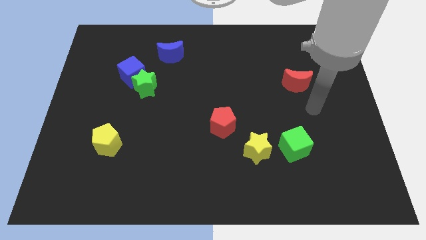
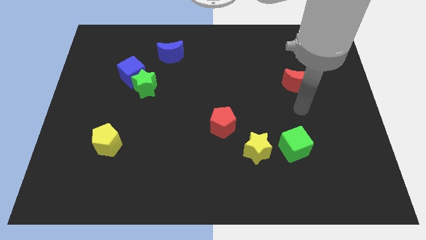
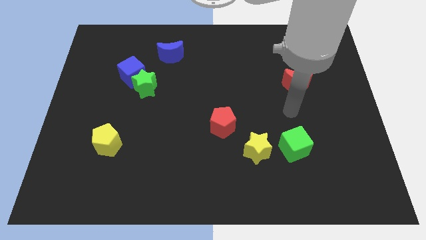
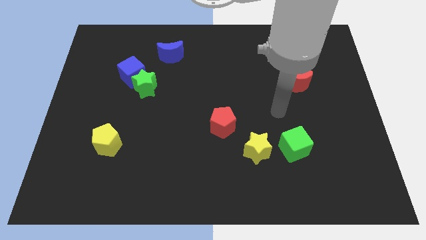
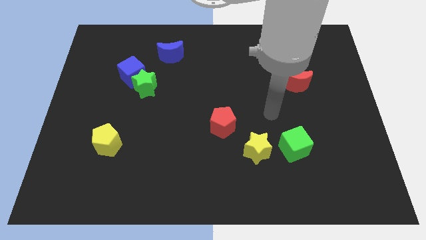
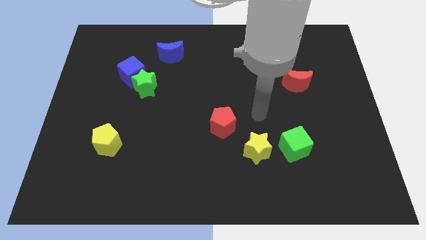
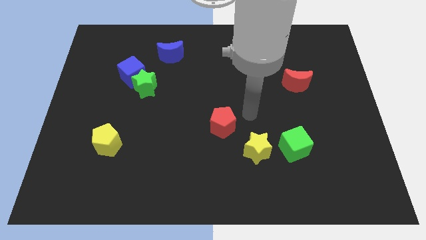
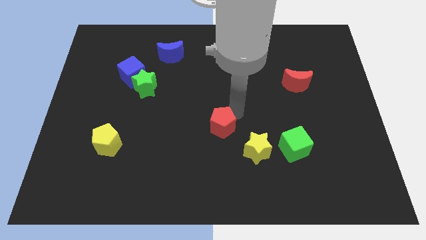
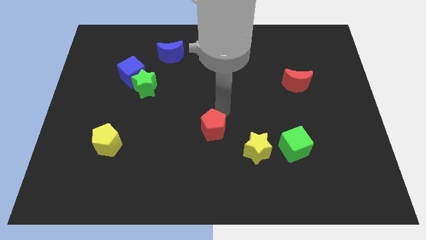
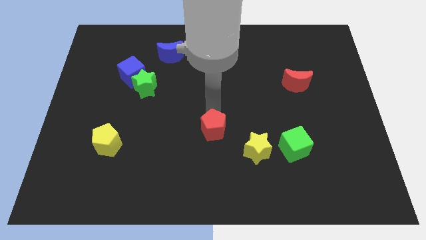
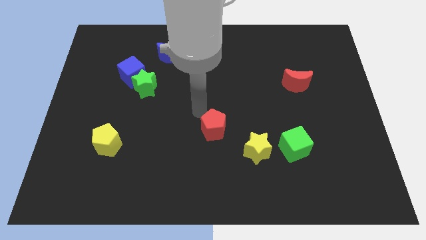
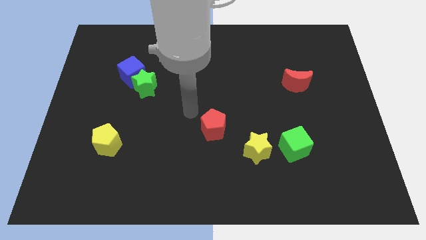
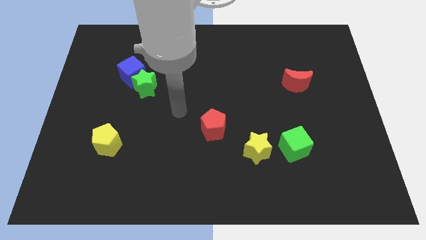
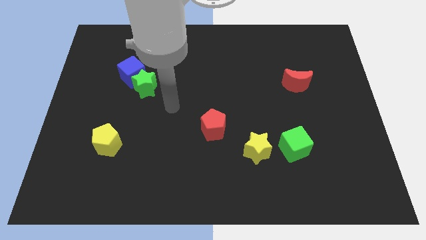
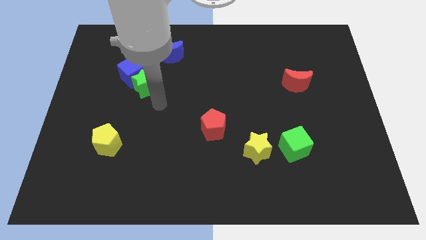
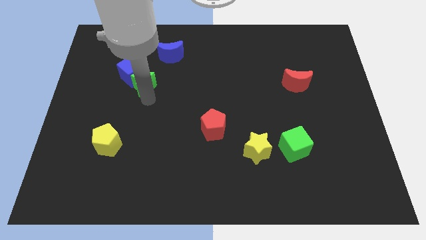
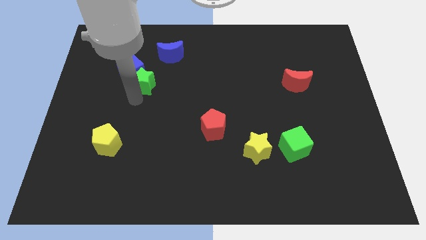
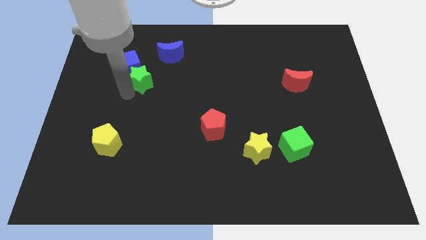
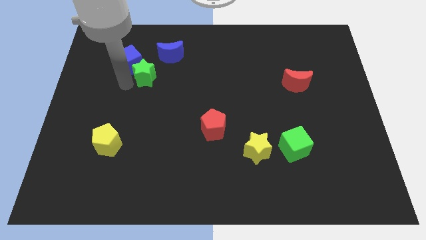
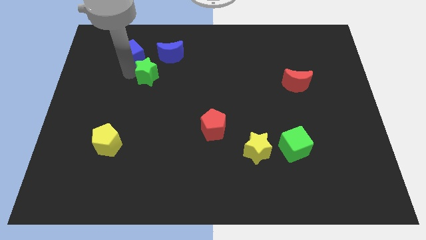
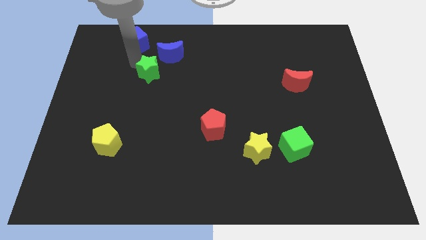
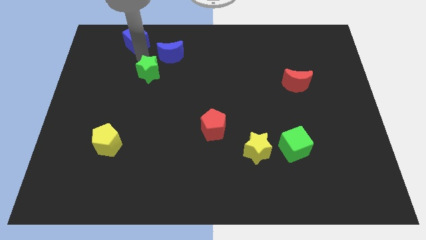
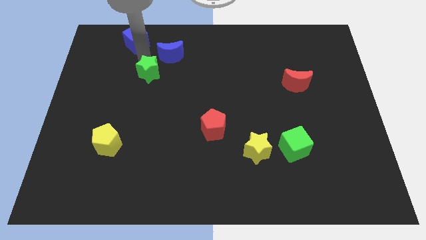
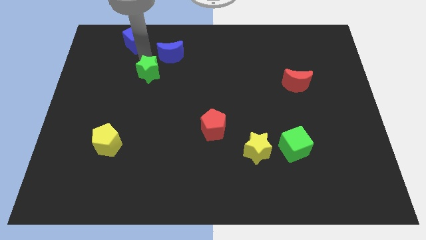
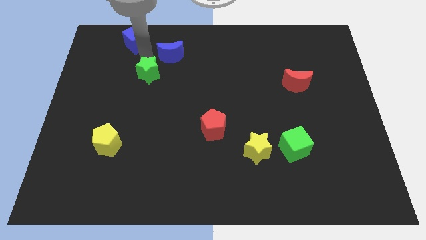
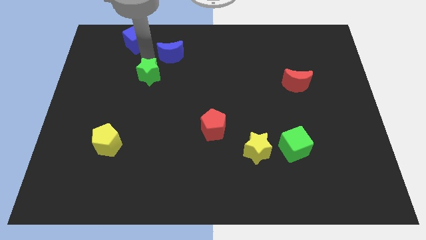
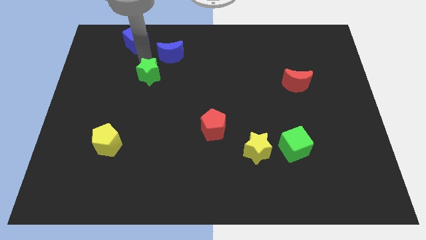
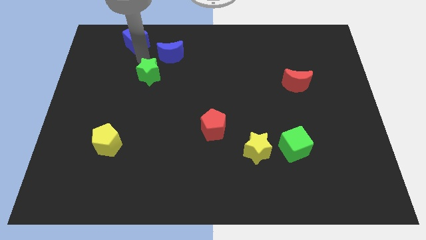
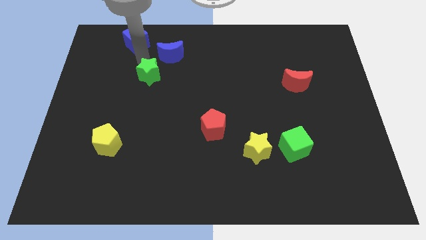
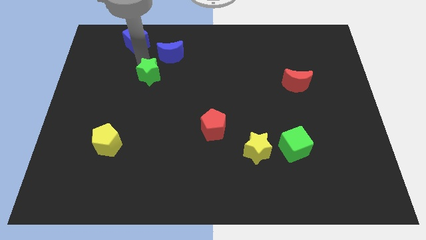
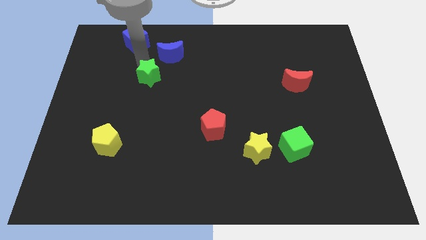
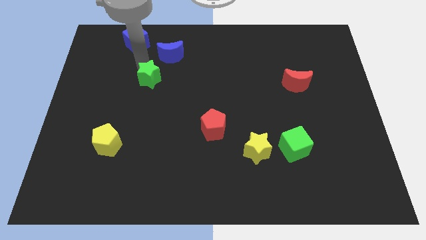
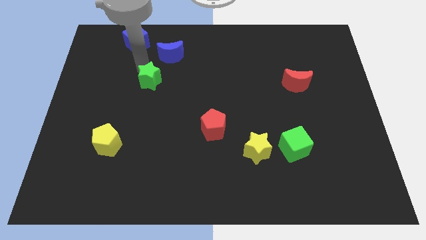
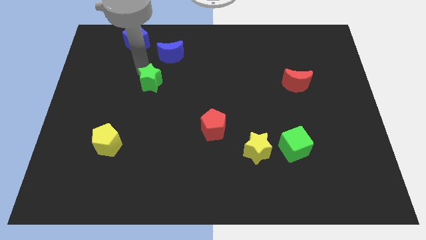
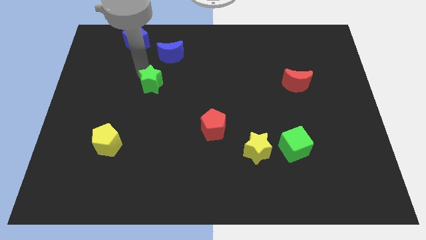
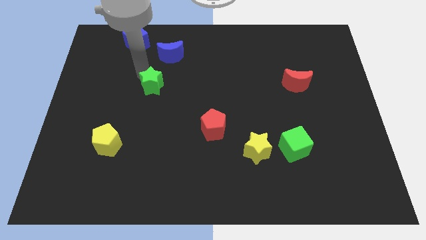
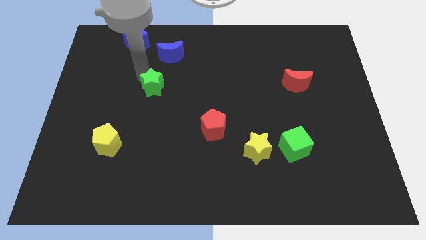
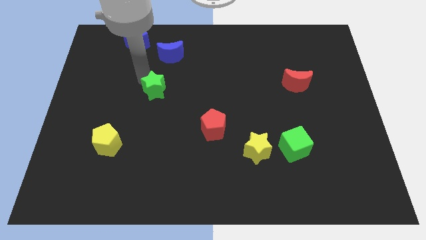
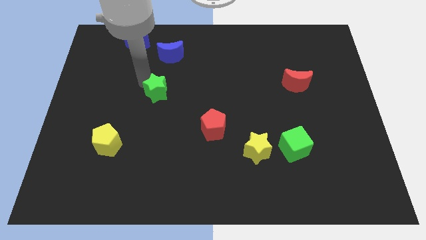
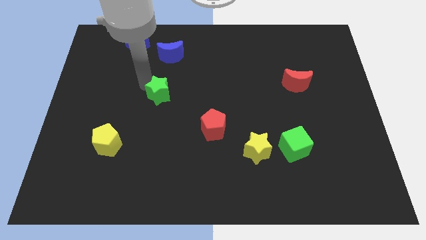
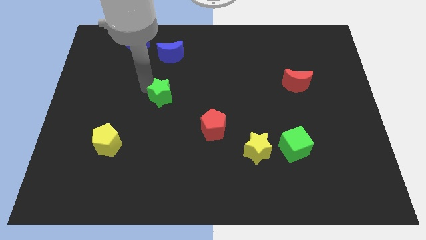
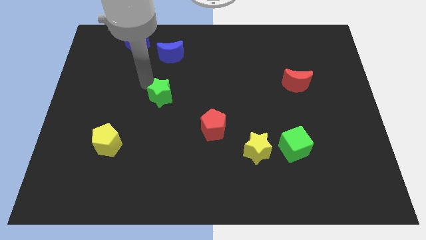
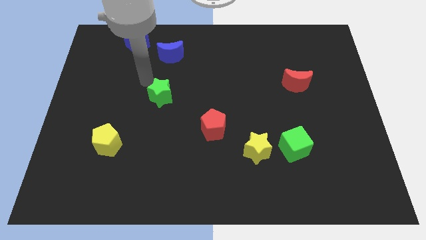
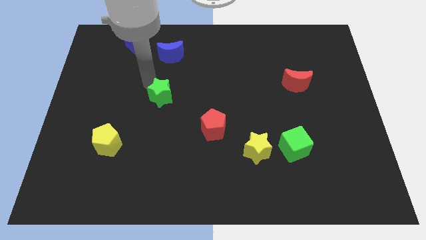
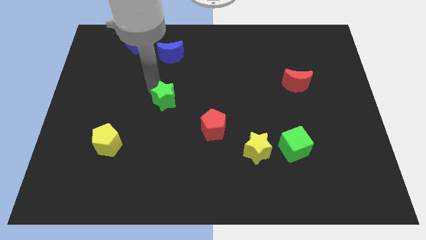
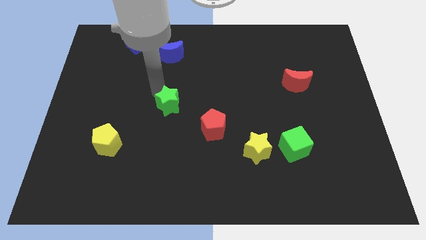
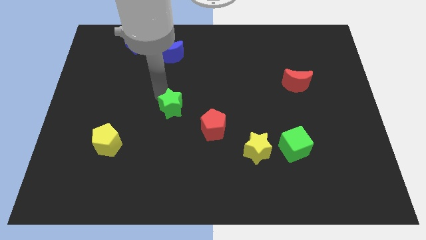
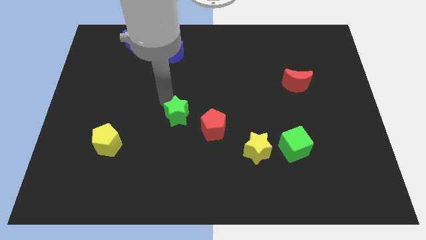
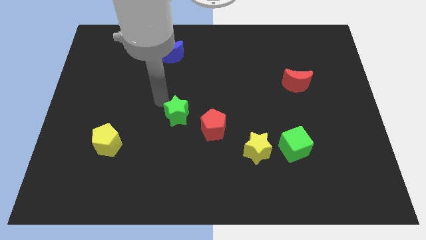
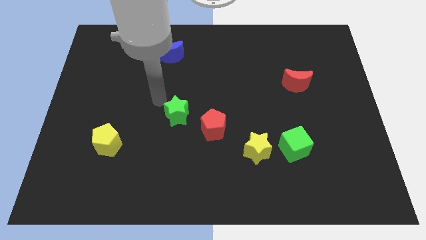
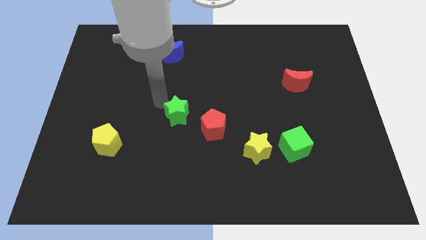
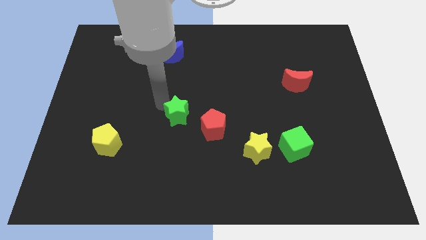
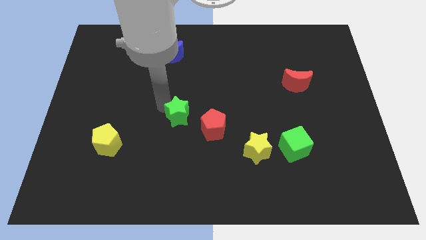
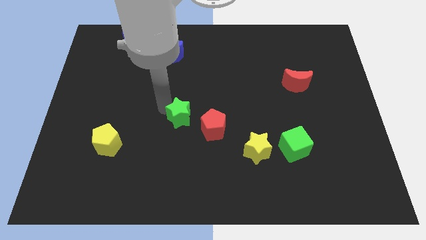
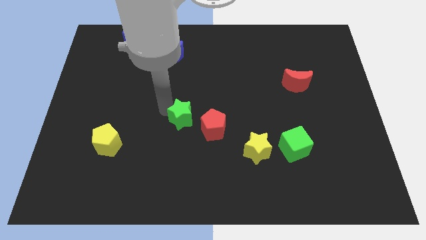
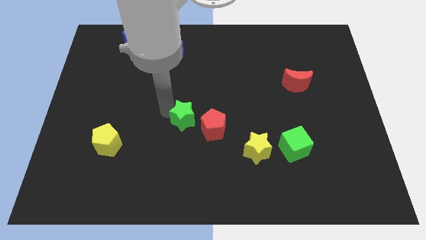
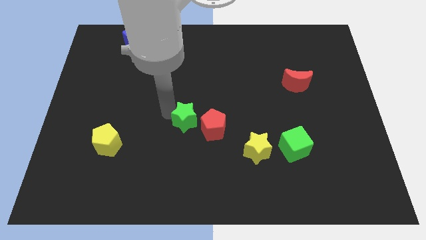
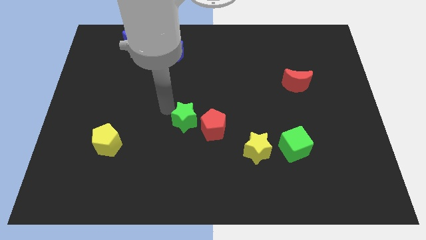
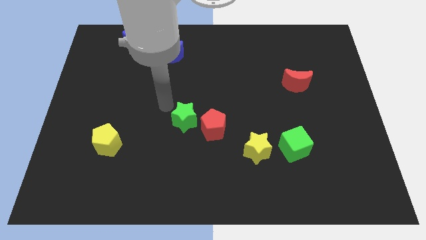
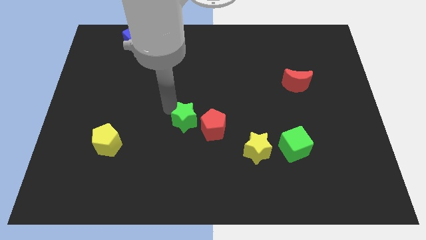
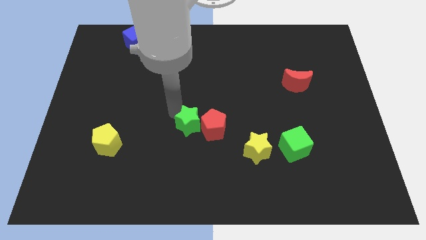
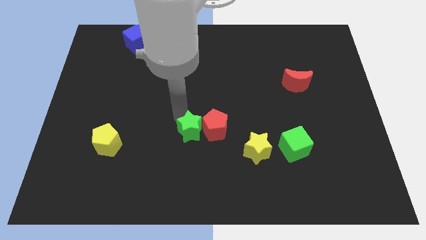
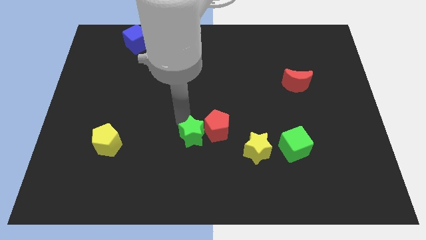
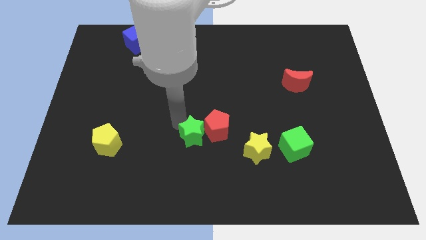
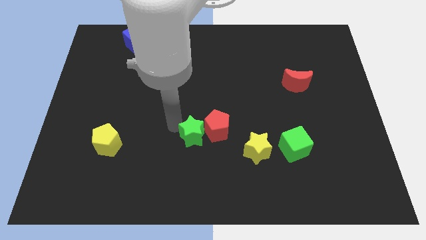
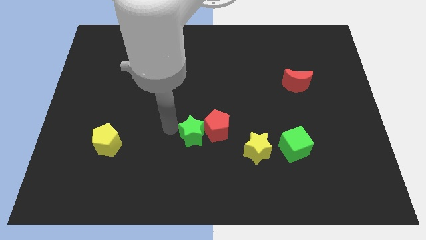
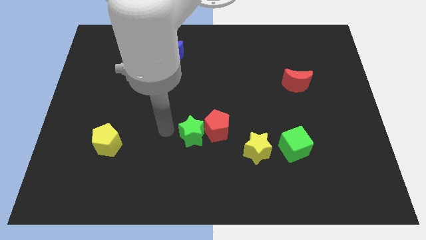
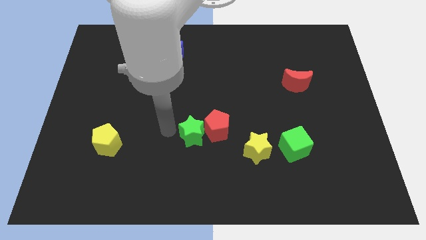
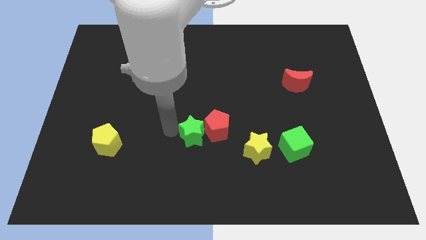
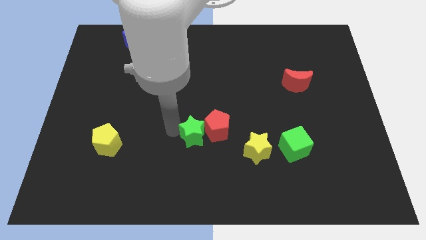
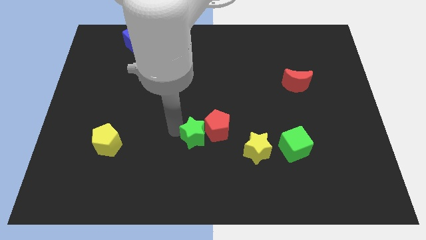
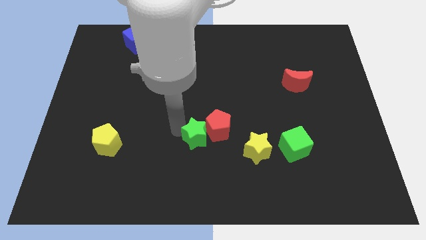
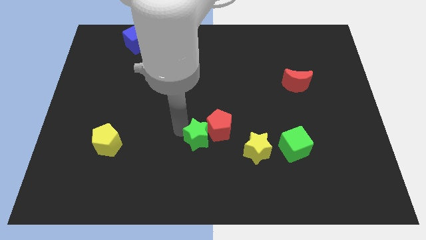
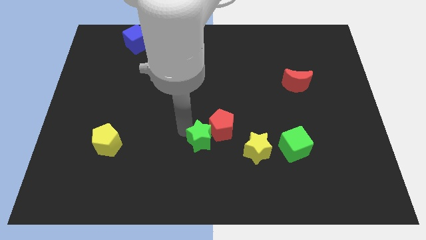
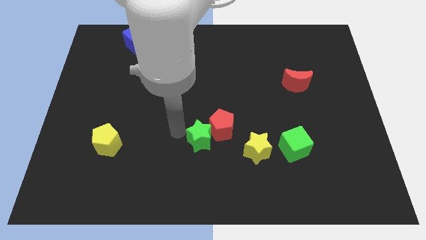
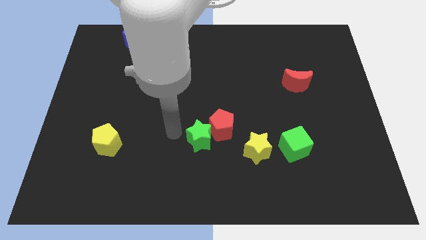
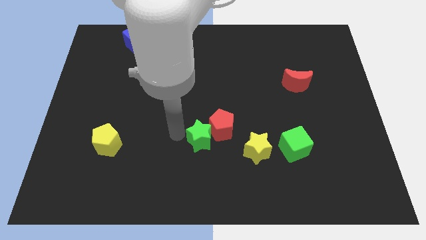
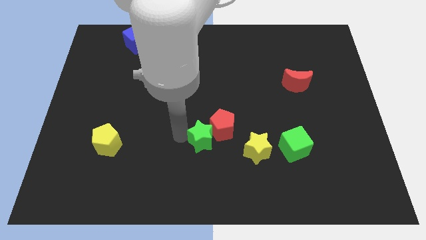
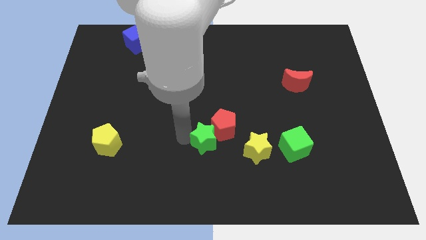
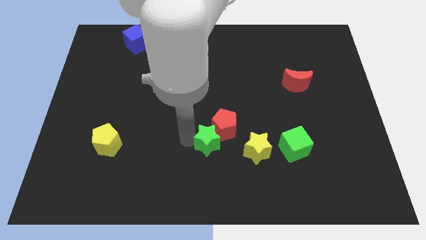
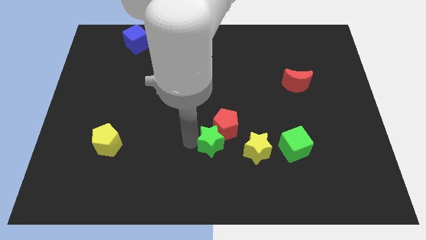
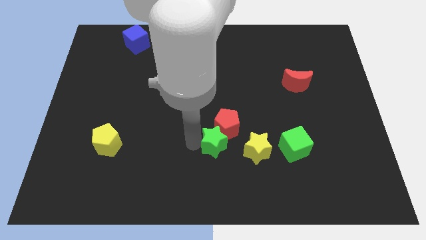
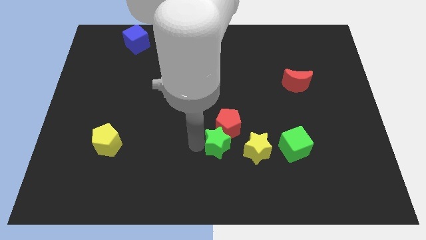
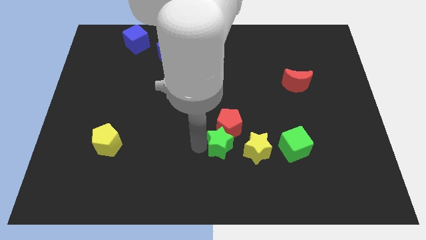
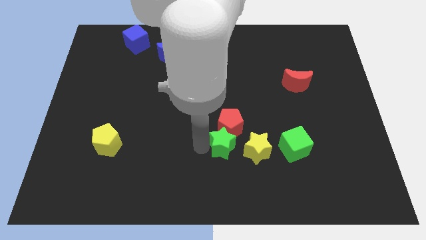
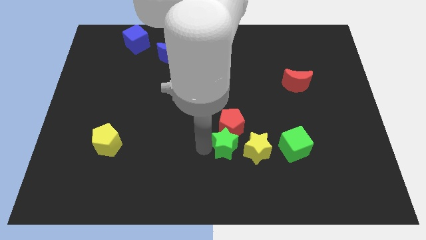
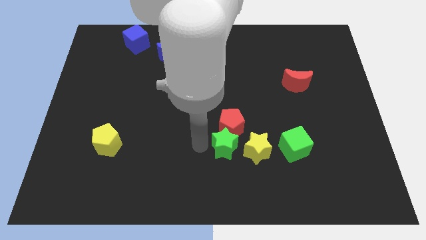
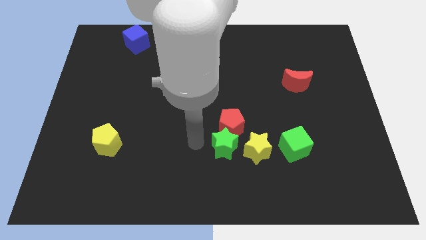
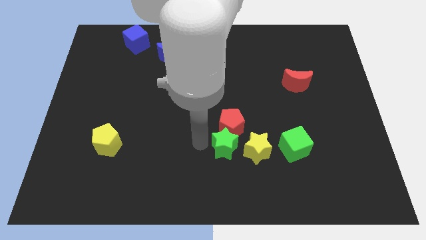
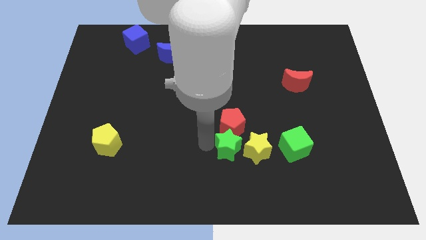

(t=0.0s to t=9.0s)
push the green star to the yellow star
